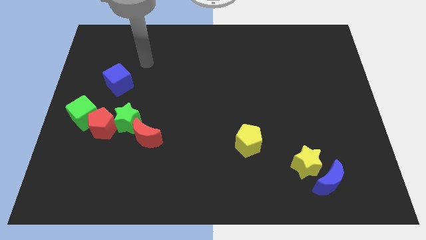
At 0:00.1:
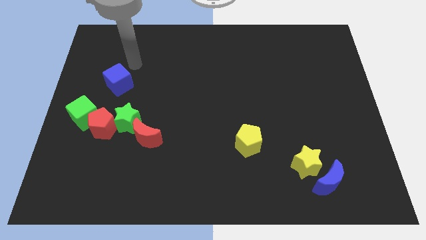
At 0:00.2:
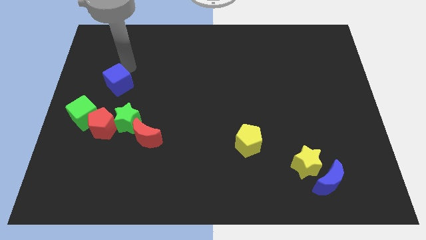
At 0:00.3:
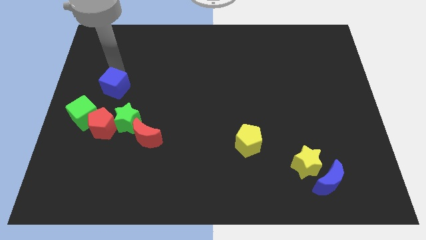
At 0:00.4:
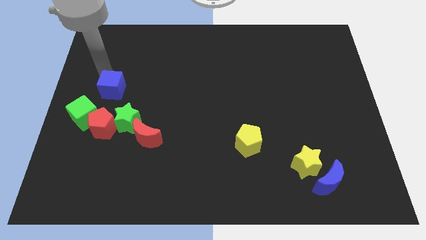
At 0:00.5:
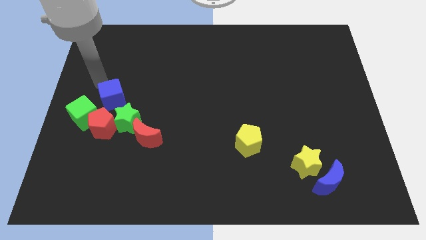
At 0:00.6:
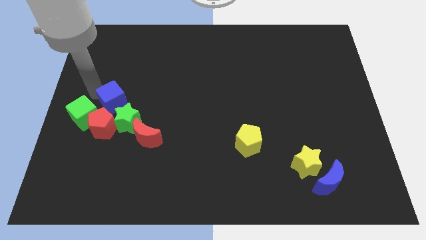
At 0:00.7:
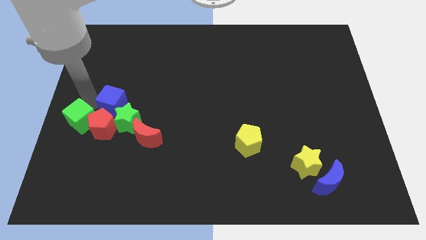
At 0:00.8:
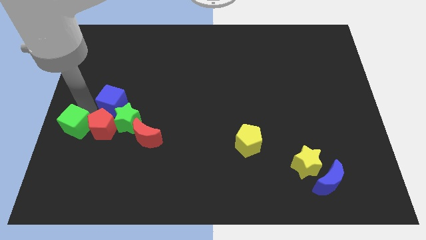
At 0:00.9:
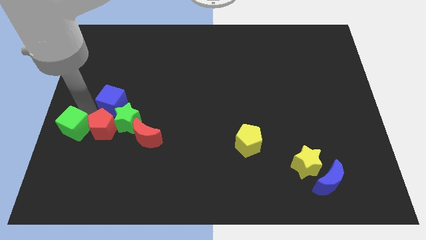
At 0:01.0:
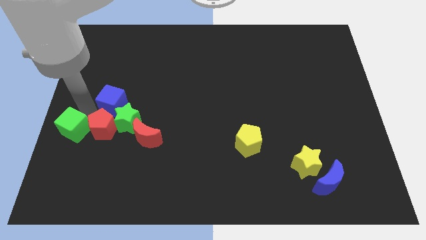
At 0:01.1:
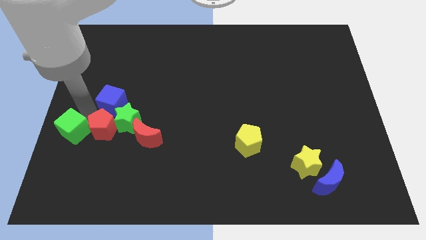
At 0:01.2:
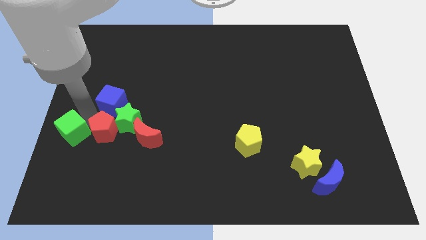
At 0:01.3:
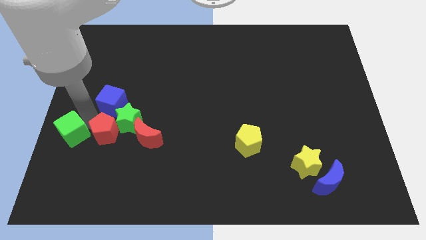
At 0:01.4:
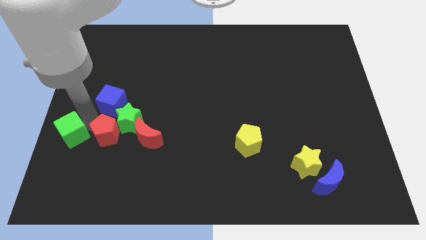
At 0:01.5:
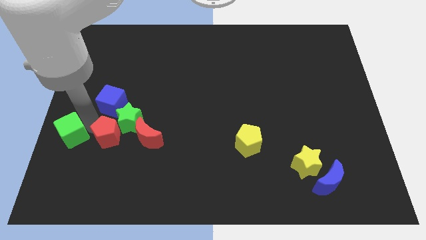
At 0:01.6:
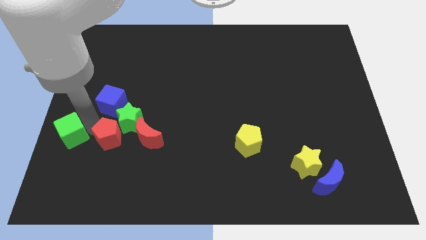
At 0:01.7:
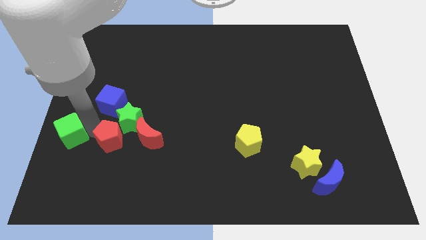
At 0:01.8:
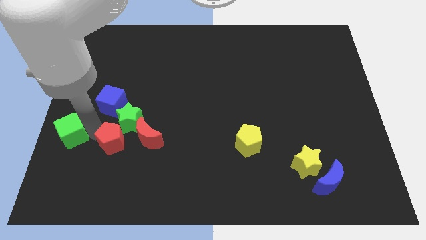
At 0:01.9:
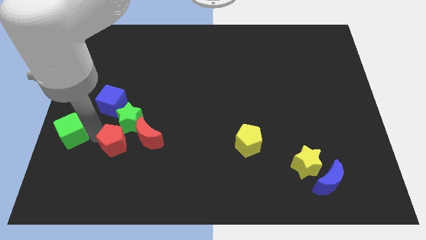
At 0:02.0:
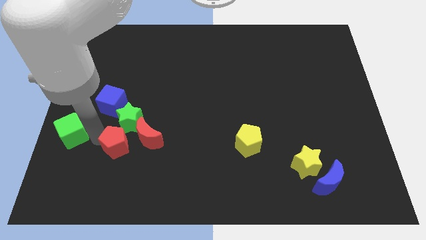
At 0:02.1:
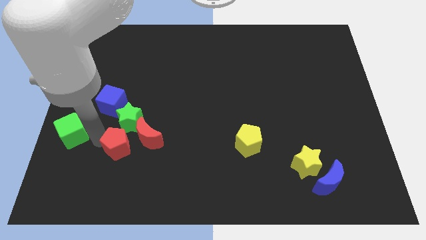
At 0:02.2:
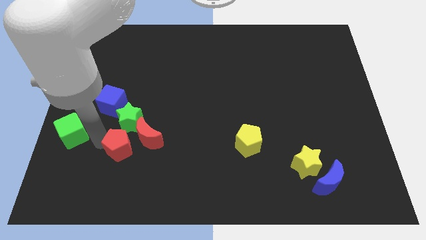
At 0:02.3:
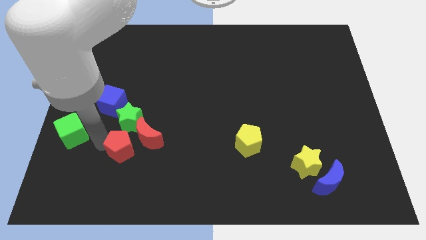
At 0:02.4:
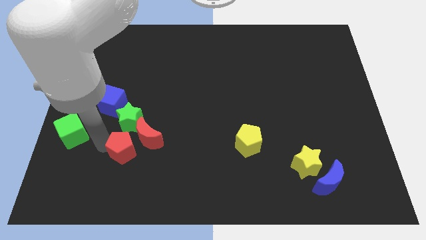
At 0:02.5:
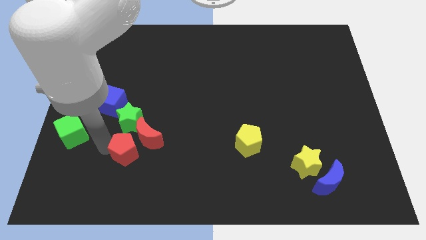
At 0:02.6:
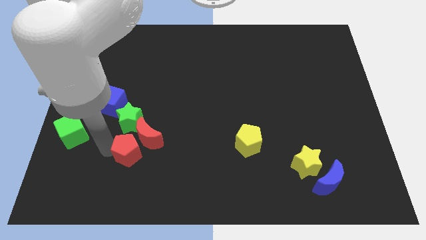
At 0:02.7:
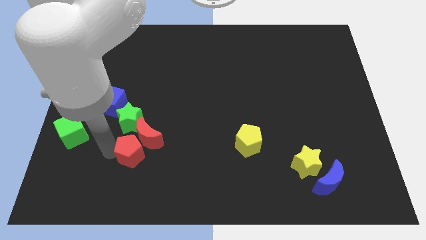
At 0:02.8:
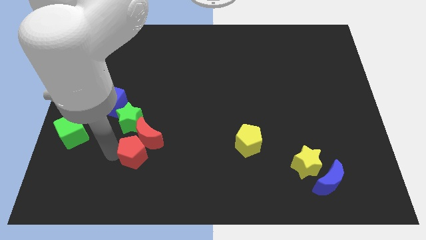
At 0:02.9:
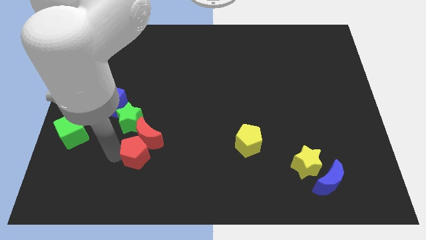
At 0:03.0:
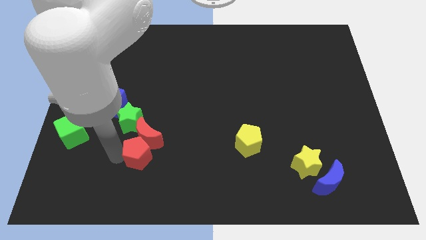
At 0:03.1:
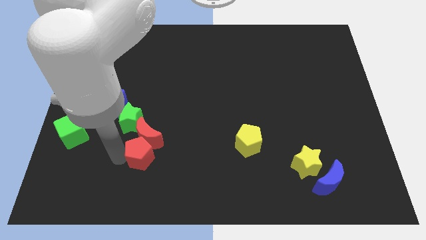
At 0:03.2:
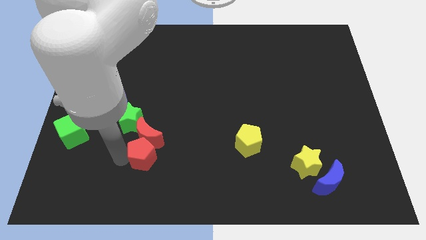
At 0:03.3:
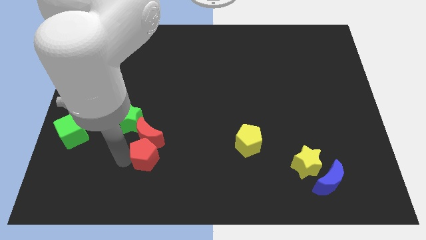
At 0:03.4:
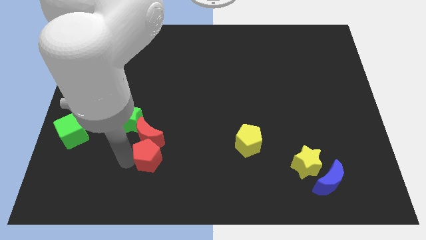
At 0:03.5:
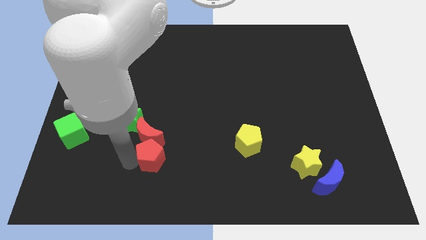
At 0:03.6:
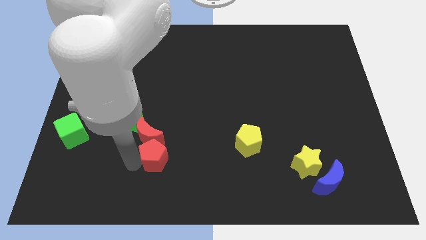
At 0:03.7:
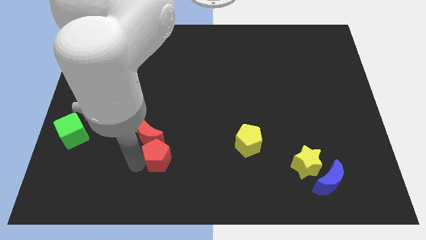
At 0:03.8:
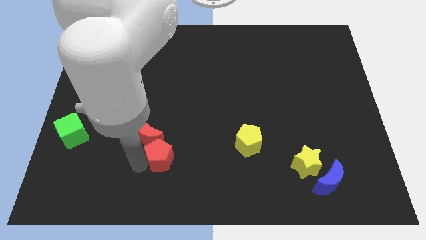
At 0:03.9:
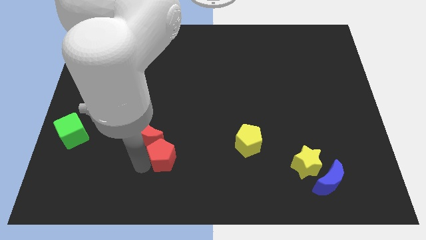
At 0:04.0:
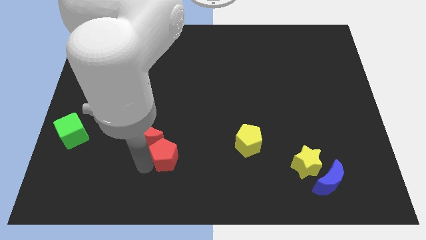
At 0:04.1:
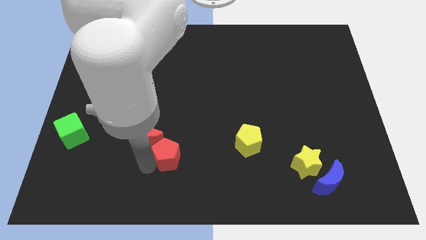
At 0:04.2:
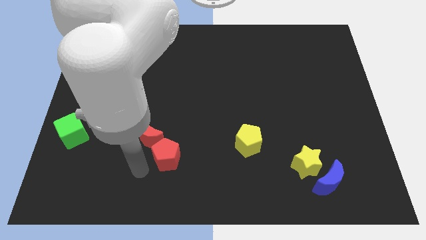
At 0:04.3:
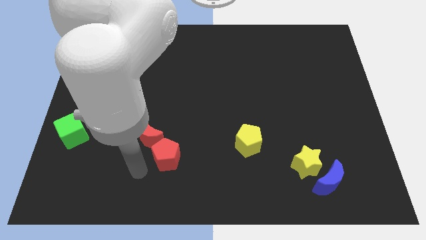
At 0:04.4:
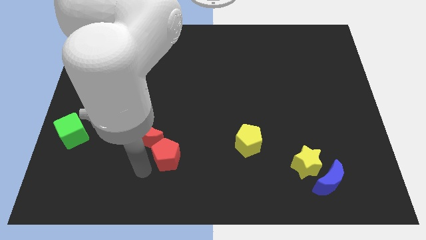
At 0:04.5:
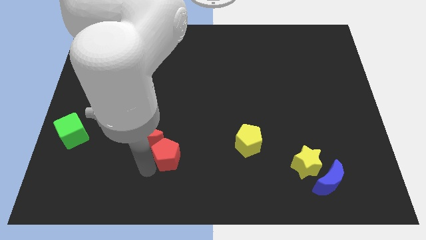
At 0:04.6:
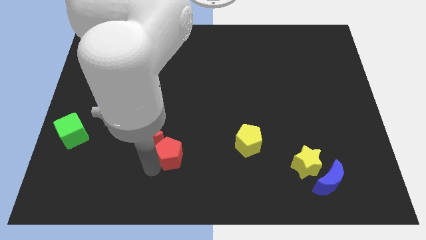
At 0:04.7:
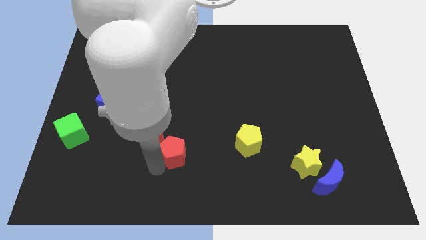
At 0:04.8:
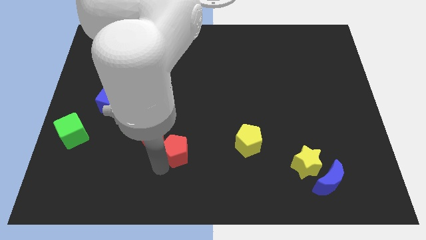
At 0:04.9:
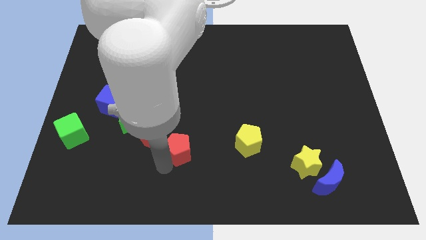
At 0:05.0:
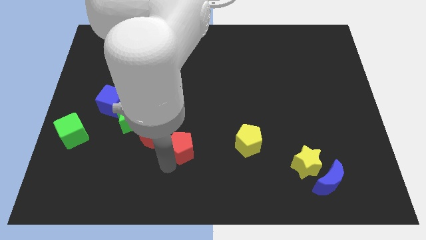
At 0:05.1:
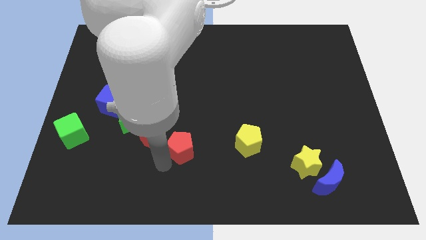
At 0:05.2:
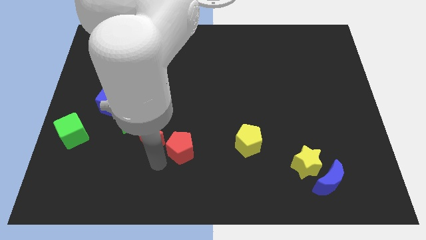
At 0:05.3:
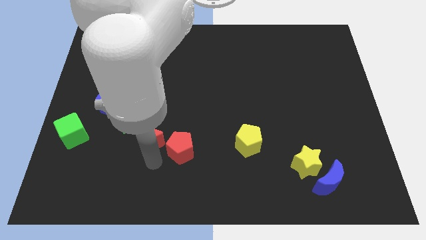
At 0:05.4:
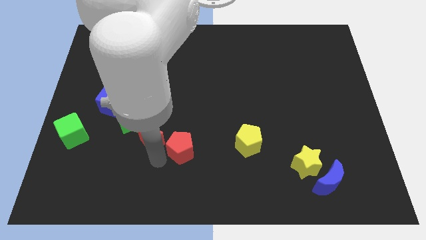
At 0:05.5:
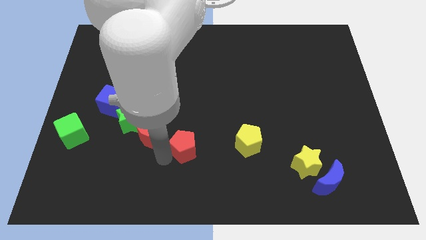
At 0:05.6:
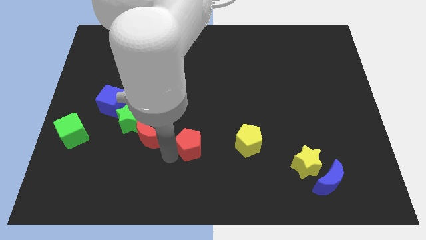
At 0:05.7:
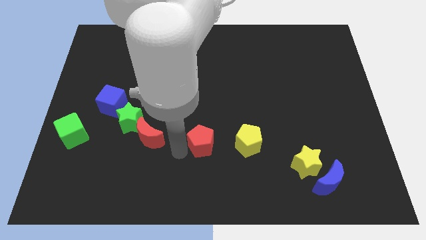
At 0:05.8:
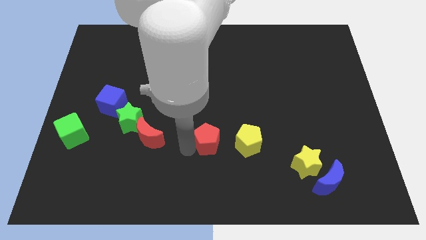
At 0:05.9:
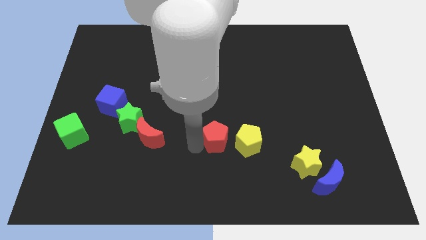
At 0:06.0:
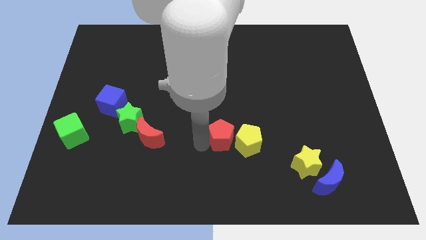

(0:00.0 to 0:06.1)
slide the red pentagon next to the yellow pentagon
